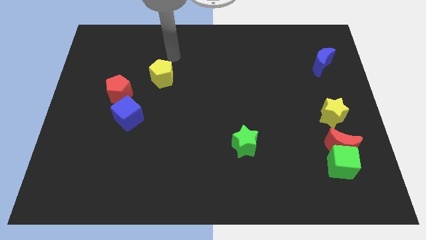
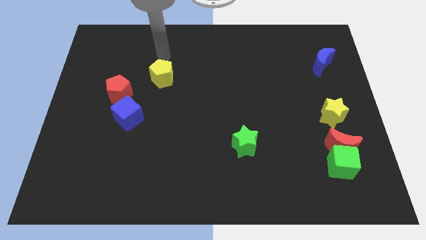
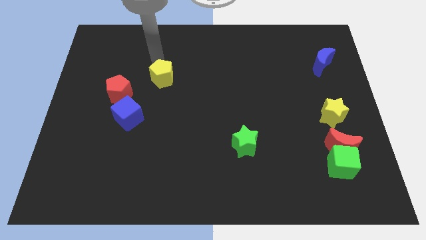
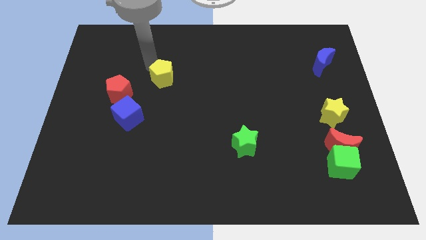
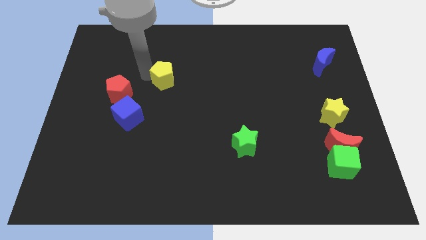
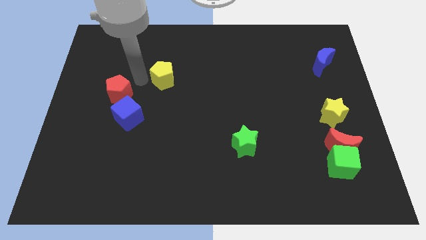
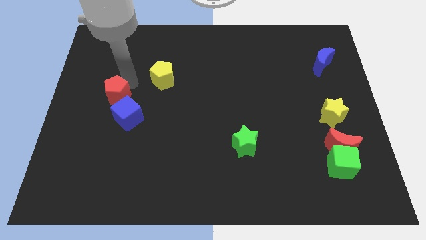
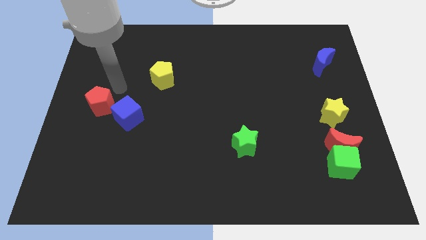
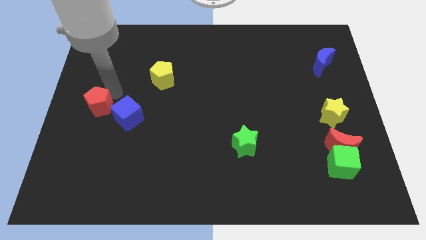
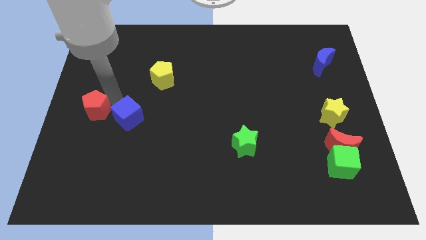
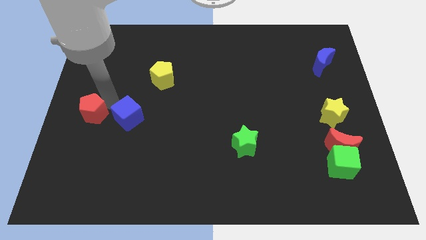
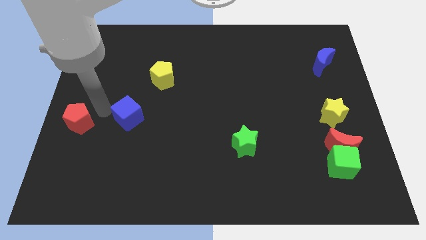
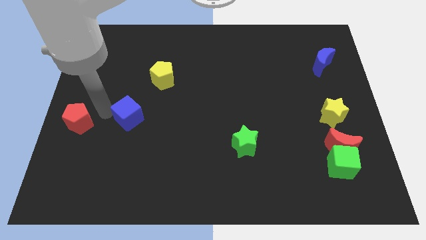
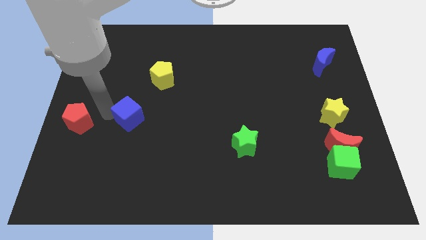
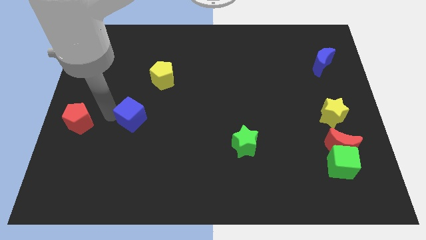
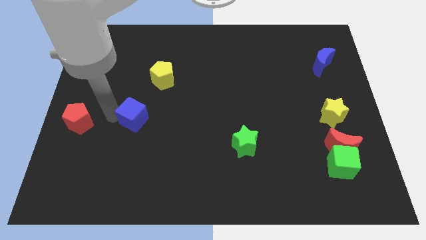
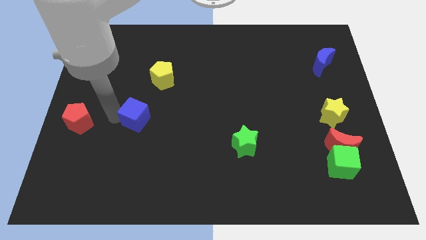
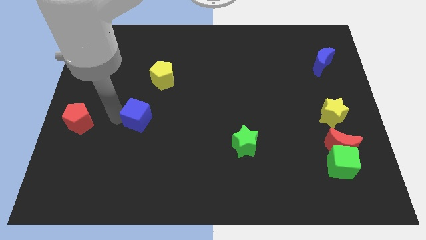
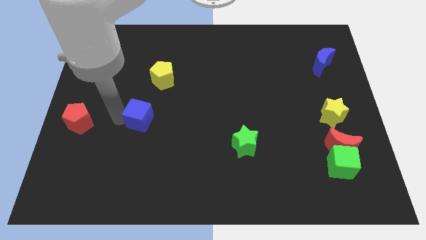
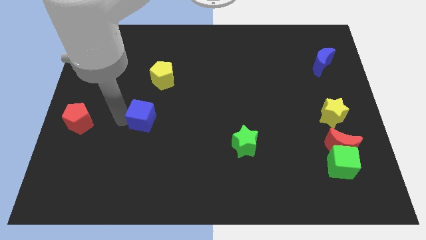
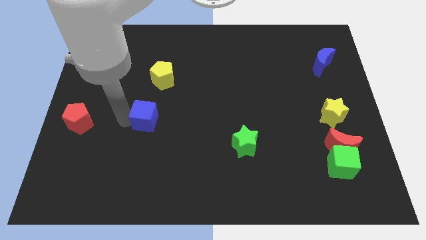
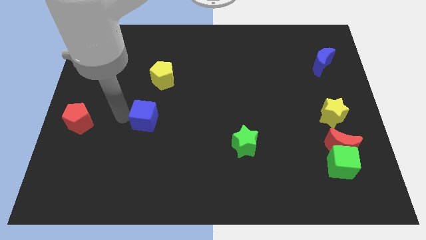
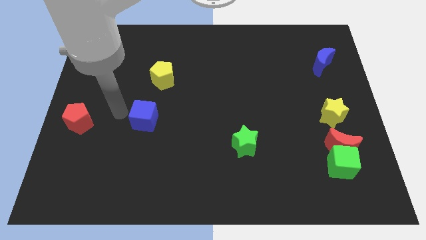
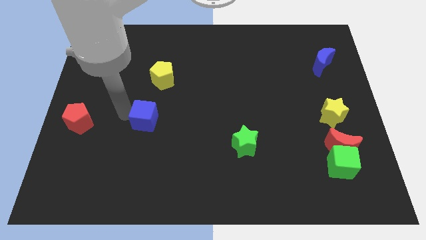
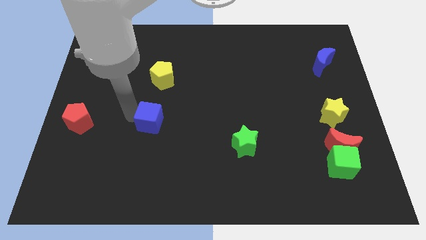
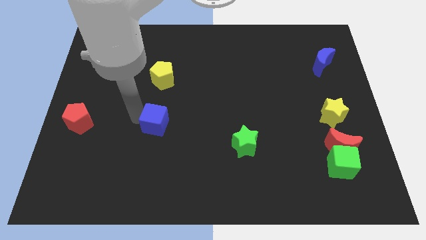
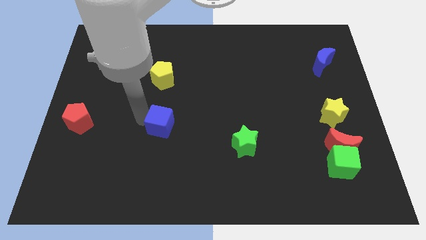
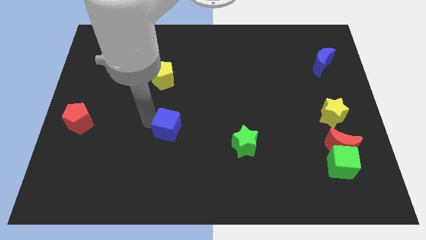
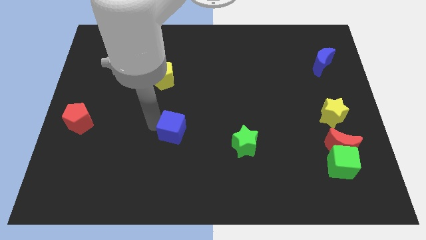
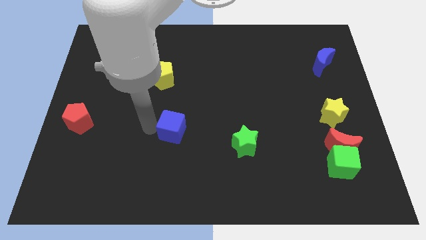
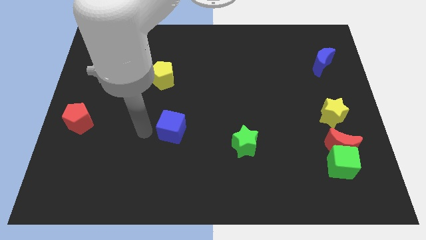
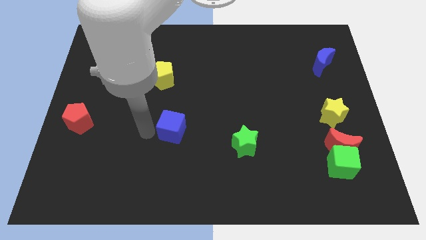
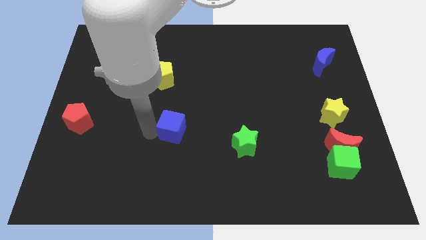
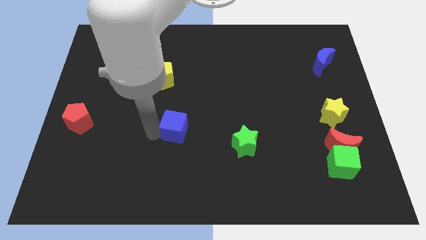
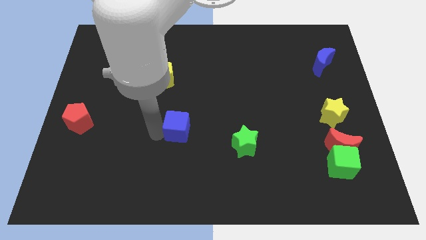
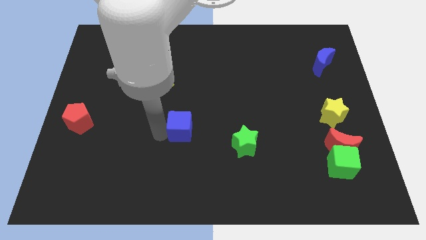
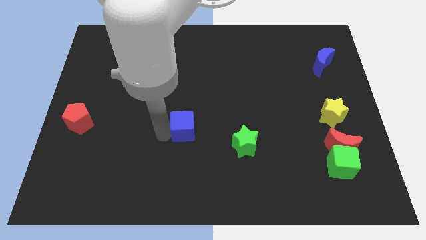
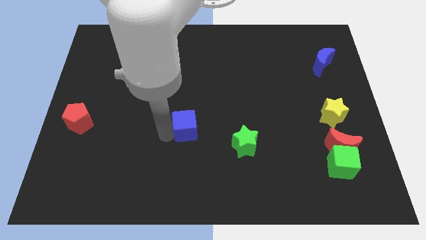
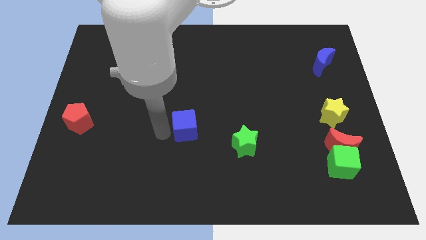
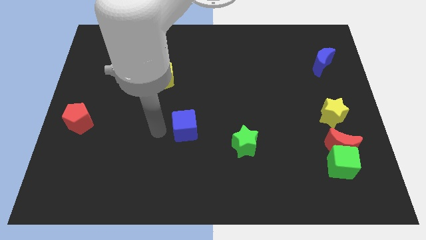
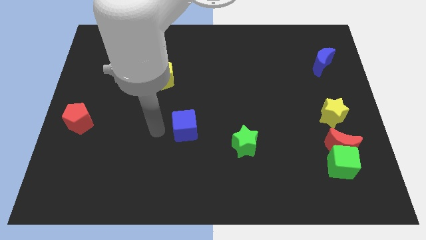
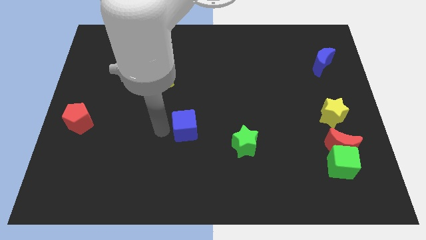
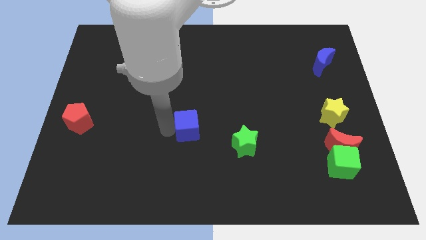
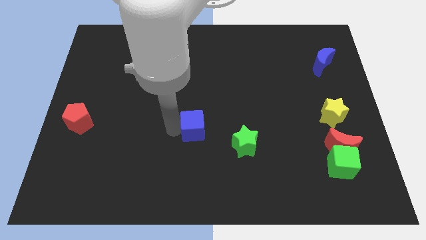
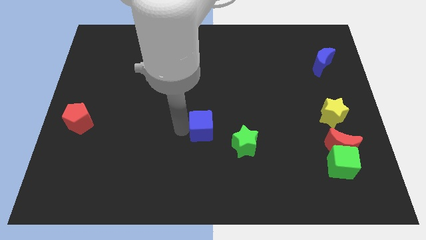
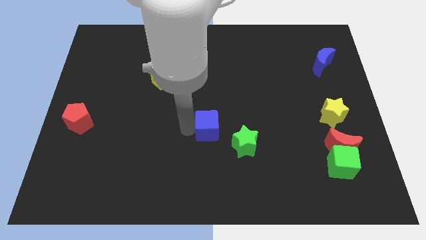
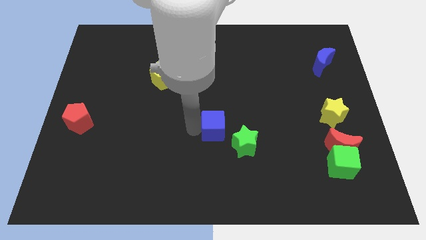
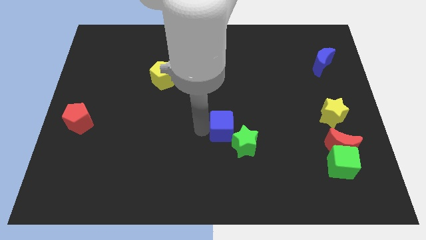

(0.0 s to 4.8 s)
push the blue cube right

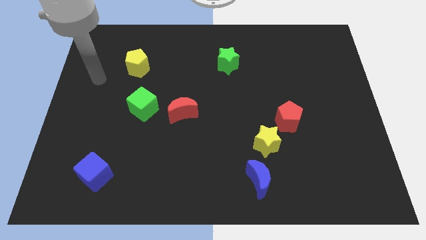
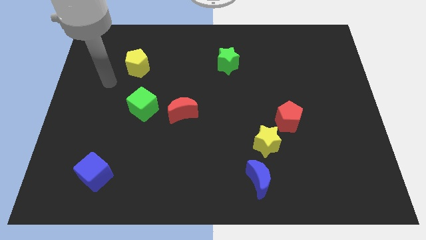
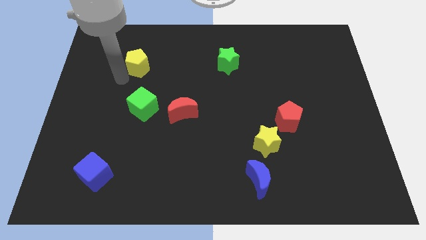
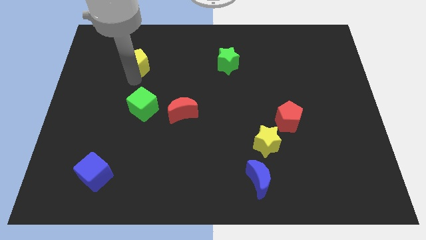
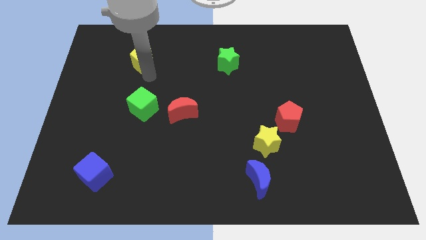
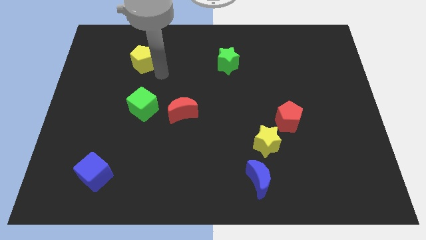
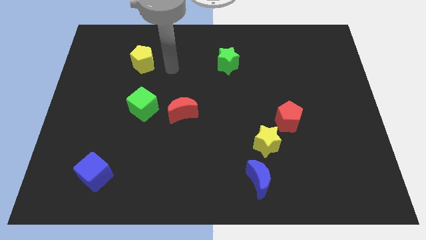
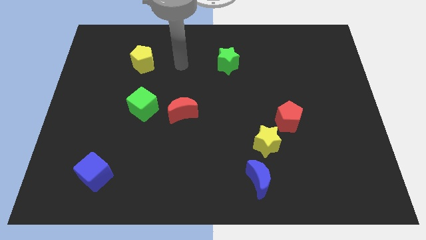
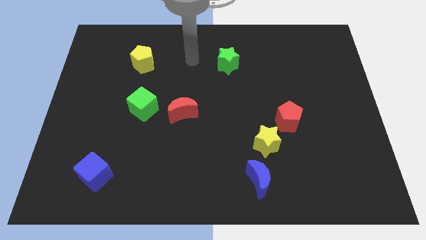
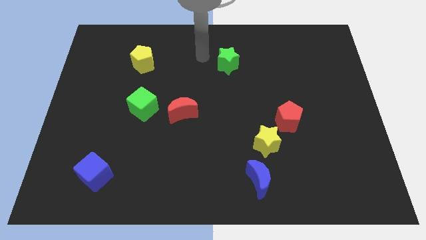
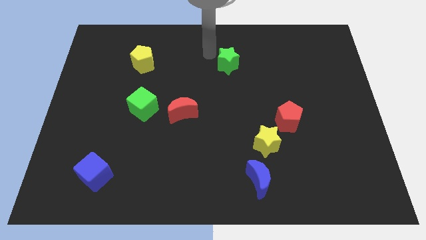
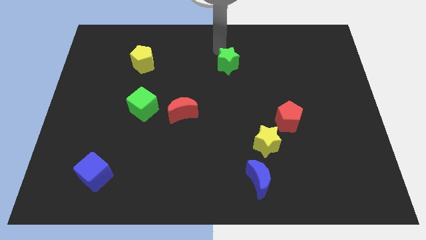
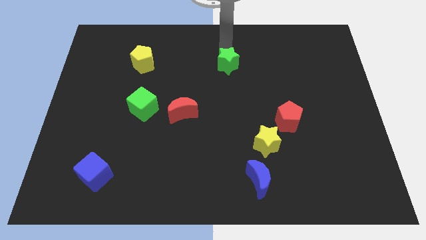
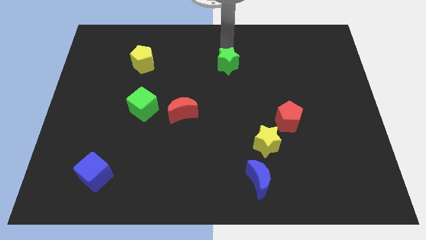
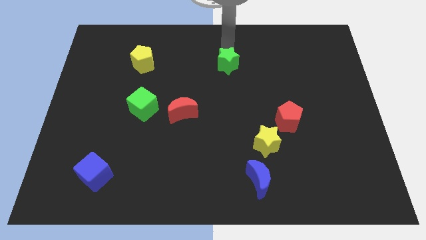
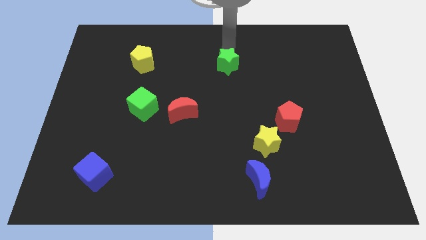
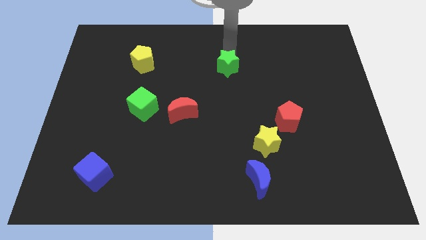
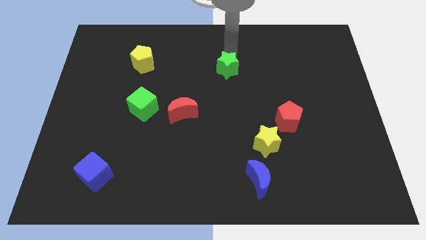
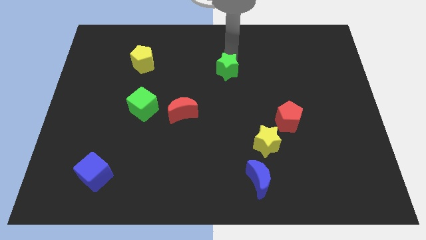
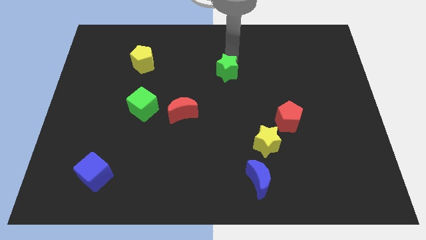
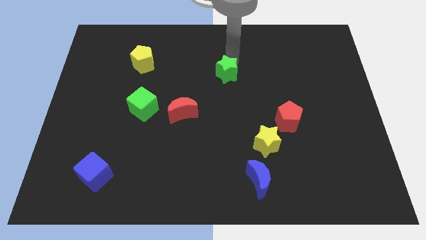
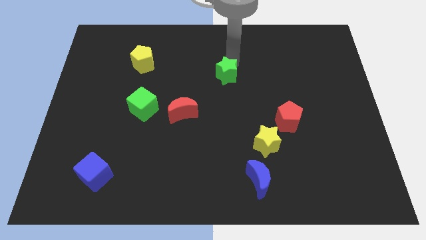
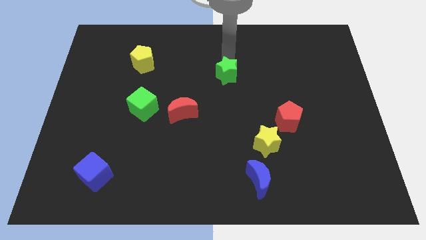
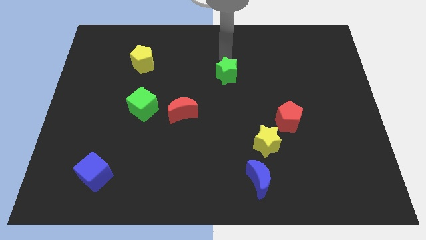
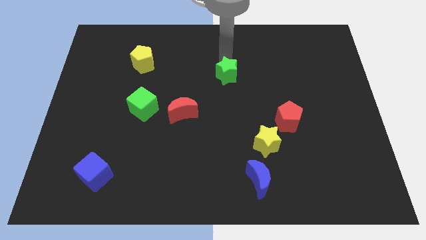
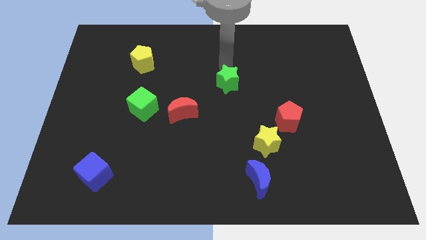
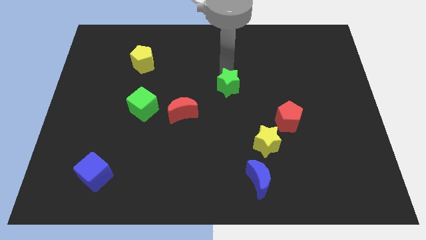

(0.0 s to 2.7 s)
push the green star a bit downwards

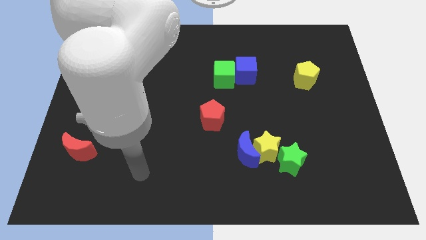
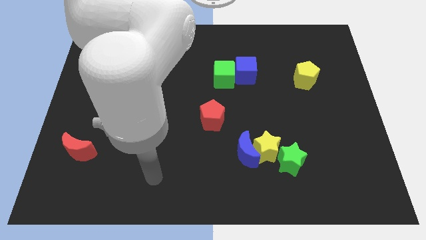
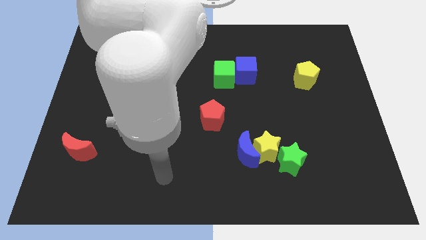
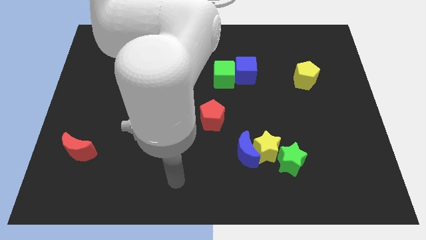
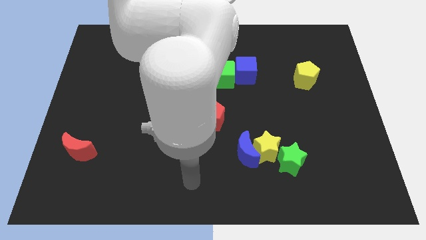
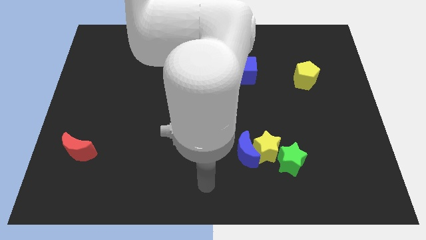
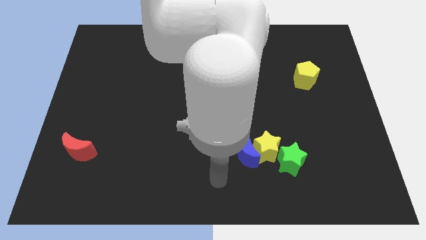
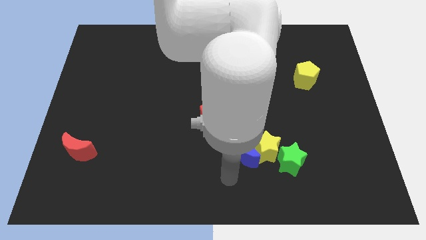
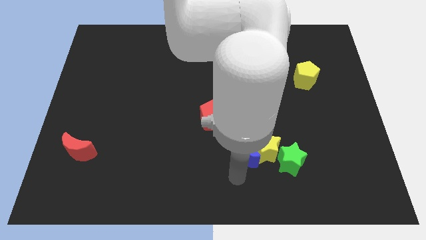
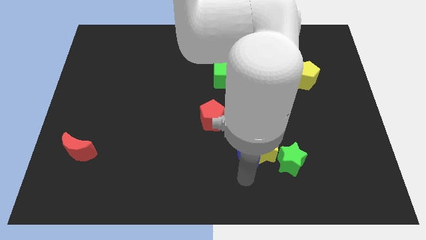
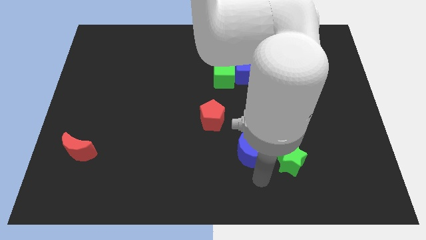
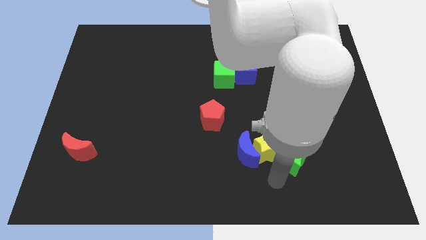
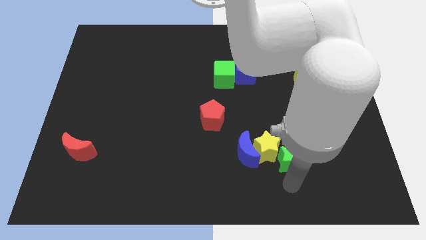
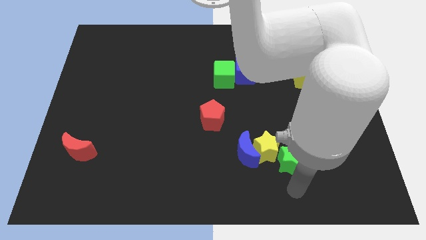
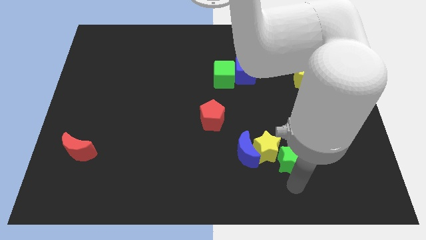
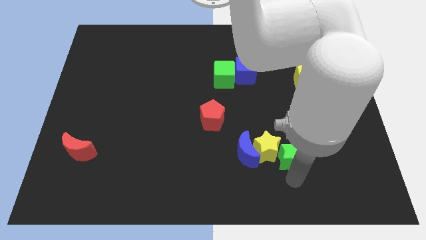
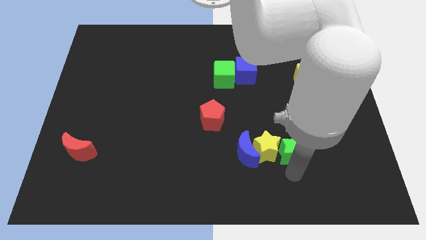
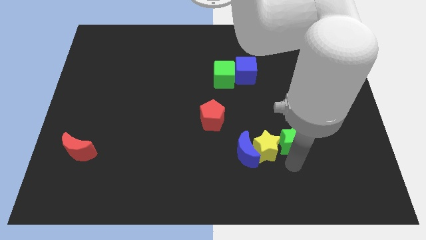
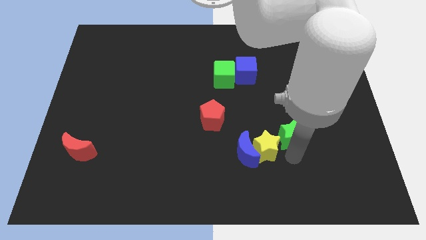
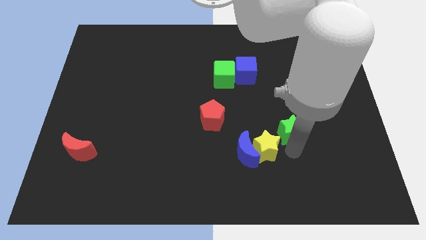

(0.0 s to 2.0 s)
push the green star up slightly
